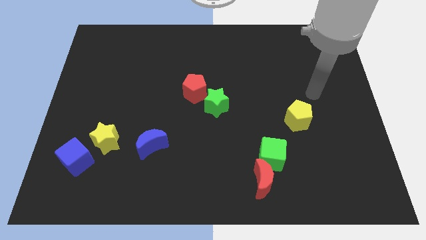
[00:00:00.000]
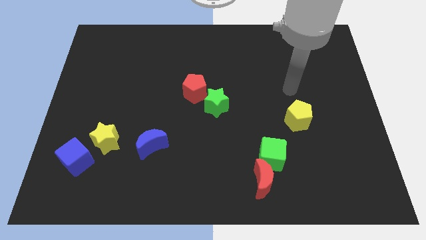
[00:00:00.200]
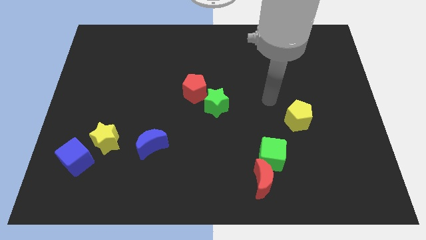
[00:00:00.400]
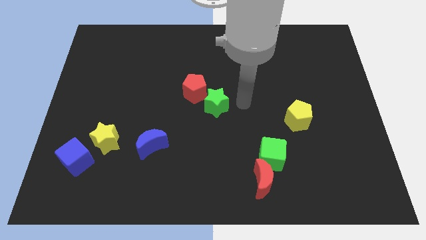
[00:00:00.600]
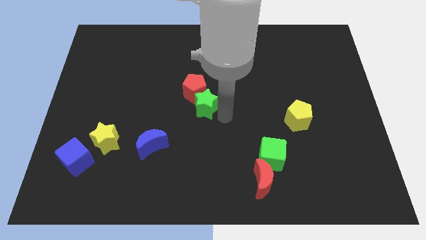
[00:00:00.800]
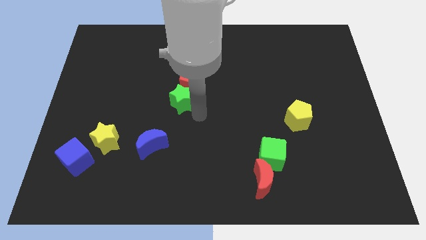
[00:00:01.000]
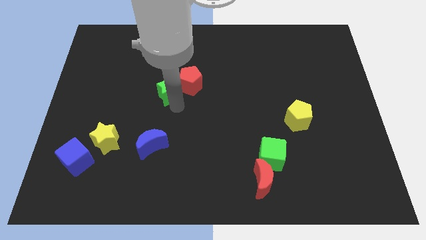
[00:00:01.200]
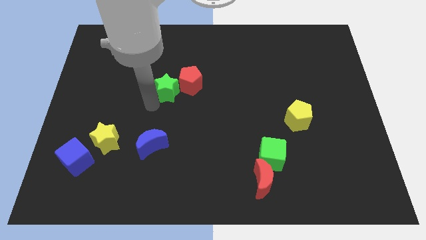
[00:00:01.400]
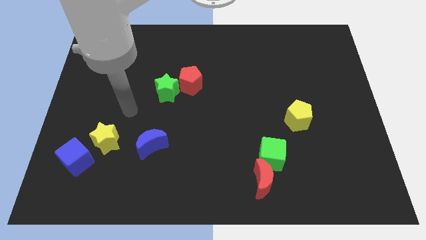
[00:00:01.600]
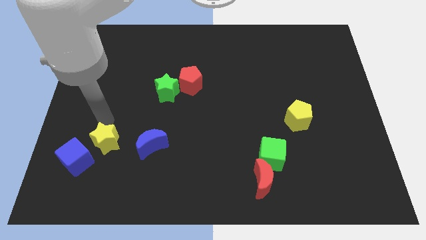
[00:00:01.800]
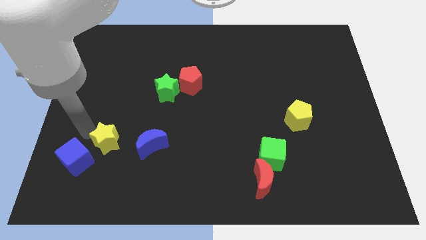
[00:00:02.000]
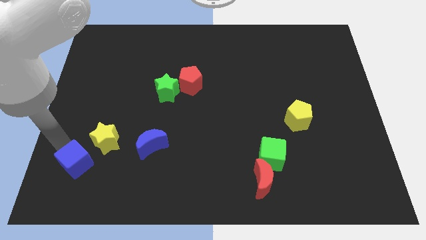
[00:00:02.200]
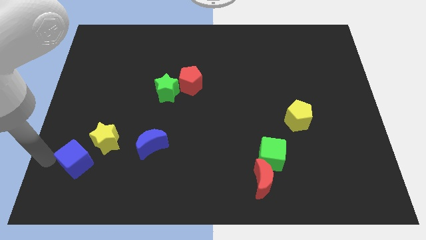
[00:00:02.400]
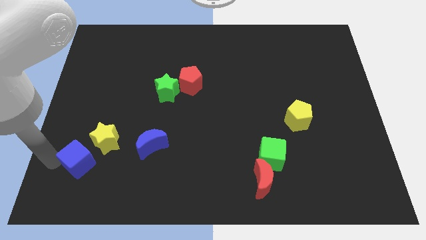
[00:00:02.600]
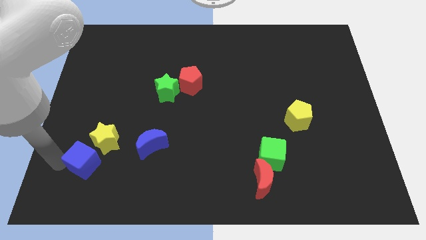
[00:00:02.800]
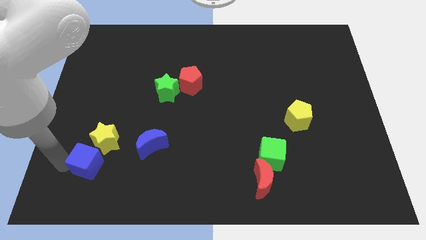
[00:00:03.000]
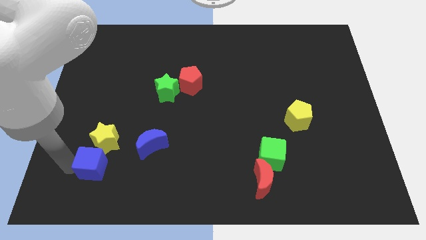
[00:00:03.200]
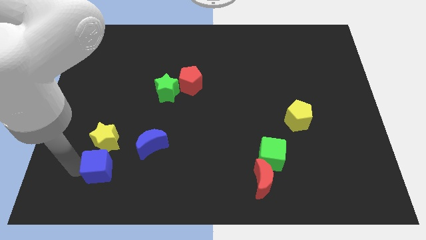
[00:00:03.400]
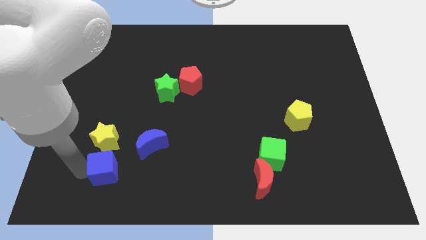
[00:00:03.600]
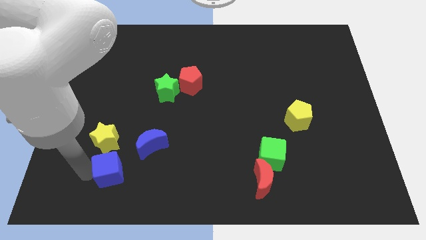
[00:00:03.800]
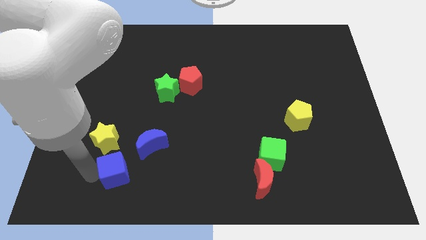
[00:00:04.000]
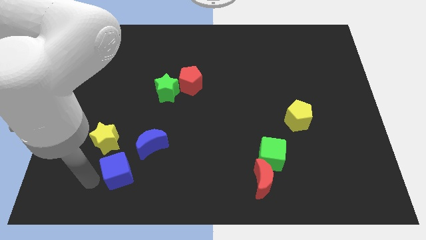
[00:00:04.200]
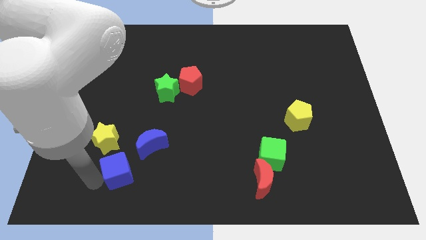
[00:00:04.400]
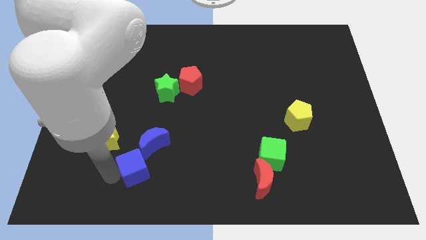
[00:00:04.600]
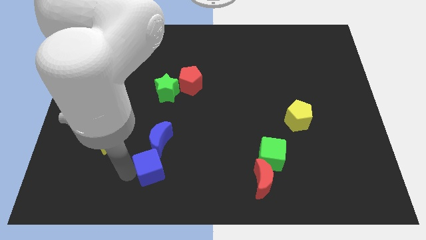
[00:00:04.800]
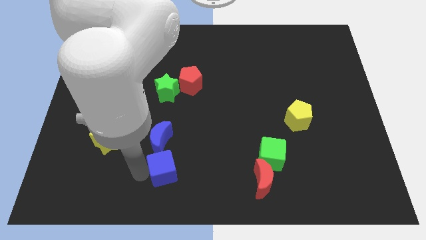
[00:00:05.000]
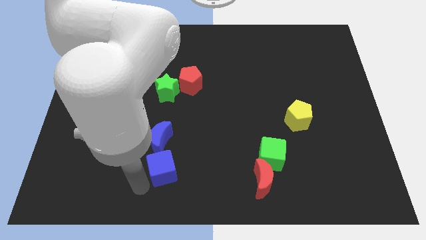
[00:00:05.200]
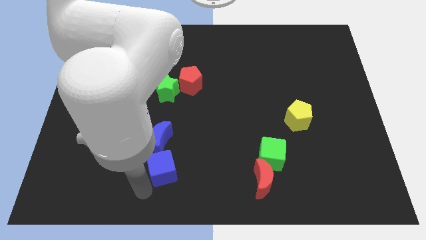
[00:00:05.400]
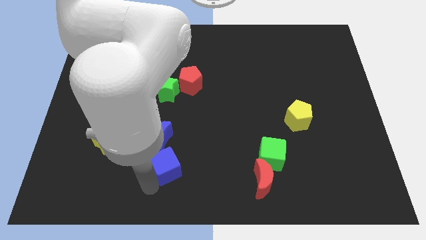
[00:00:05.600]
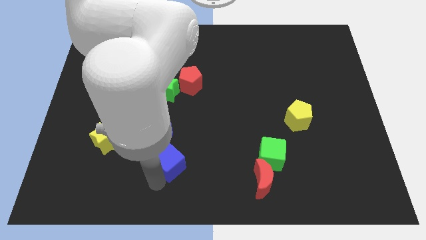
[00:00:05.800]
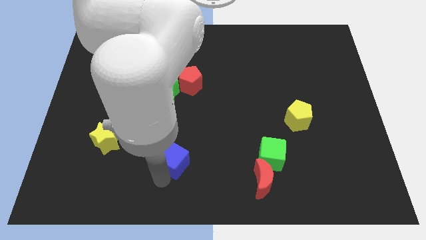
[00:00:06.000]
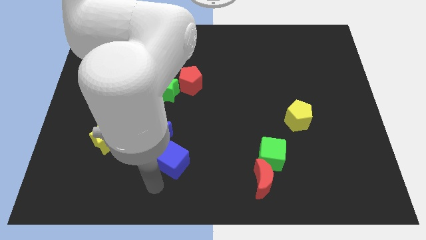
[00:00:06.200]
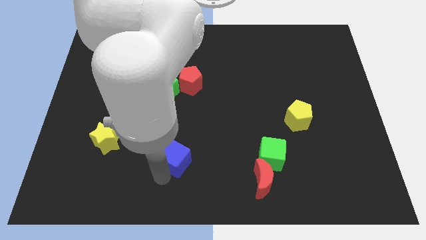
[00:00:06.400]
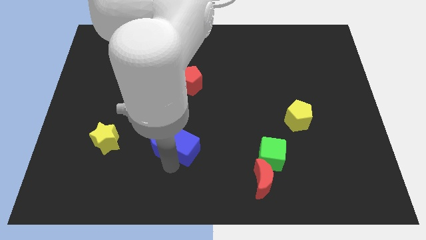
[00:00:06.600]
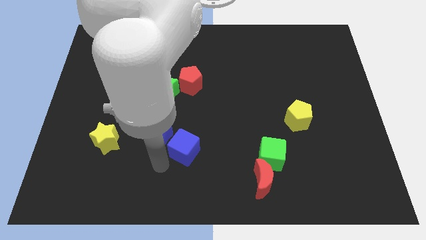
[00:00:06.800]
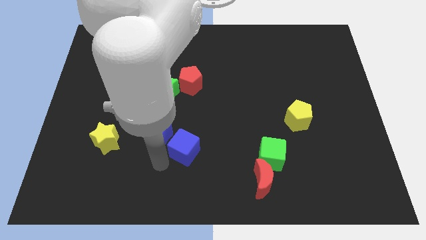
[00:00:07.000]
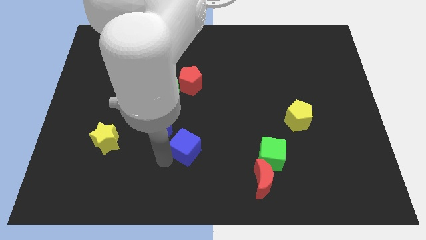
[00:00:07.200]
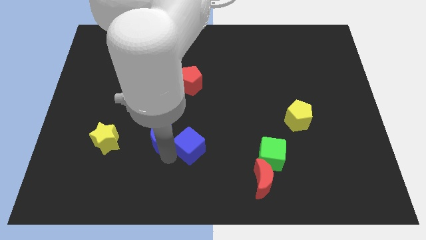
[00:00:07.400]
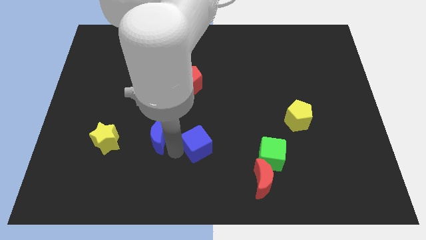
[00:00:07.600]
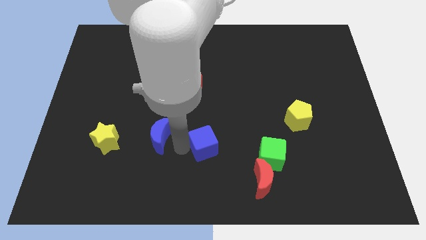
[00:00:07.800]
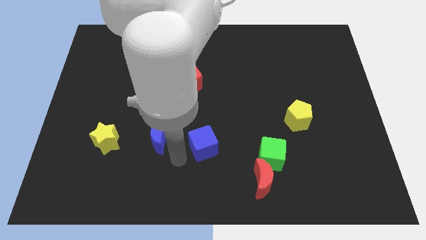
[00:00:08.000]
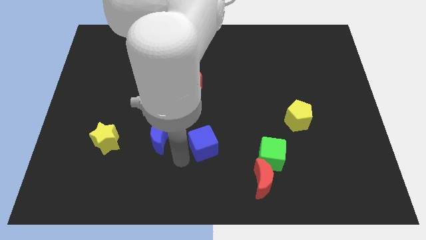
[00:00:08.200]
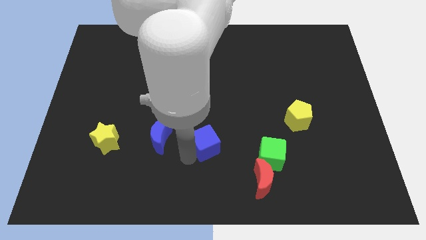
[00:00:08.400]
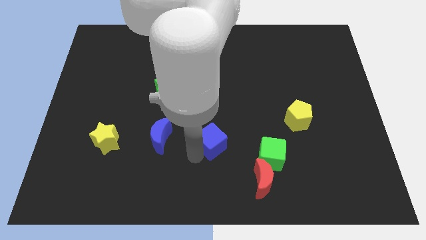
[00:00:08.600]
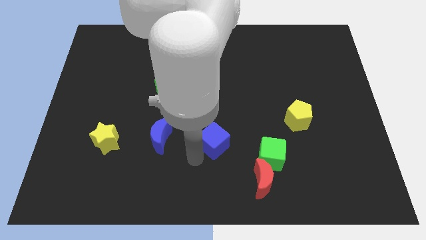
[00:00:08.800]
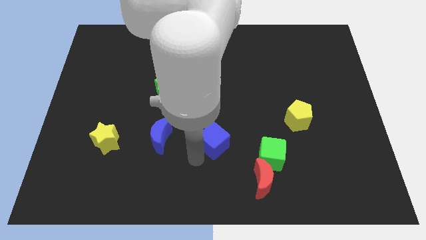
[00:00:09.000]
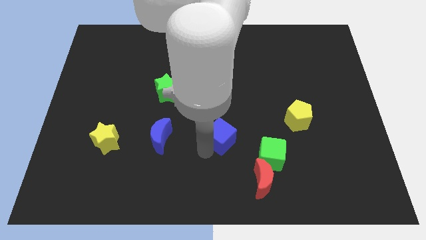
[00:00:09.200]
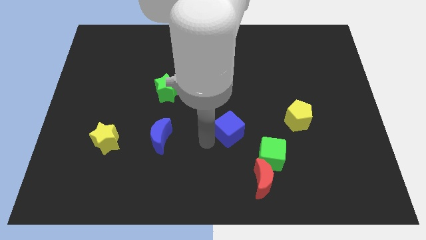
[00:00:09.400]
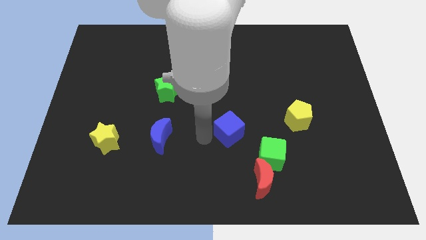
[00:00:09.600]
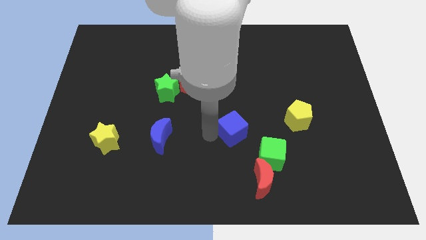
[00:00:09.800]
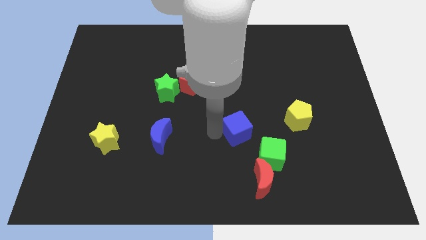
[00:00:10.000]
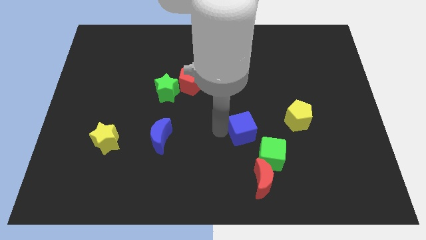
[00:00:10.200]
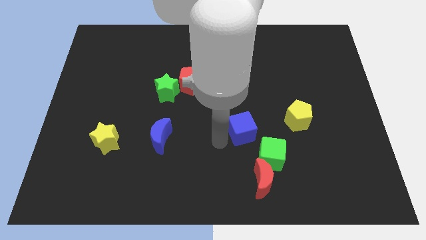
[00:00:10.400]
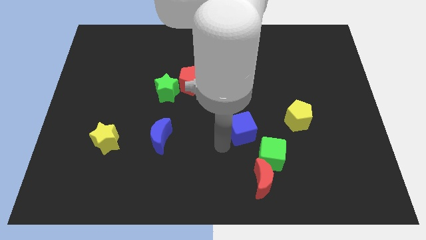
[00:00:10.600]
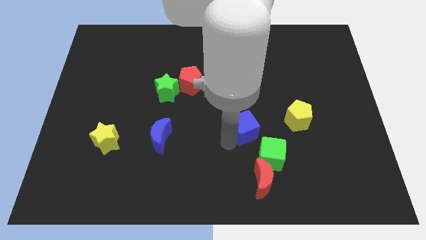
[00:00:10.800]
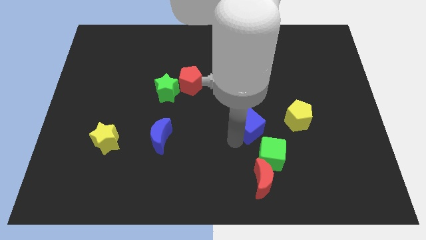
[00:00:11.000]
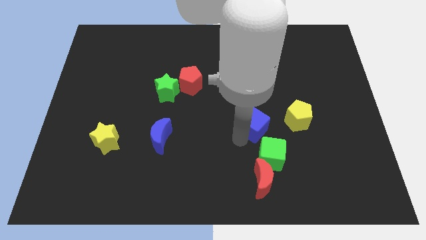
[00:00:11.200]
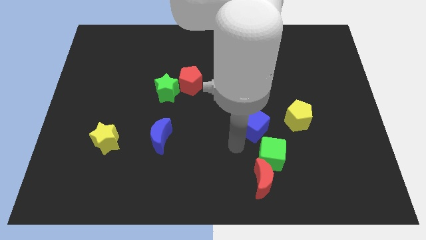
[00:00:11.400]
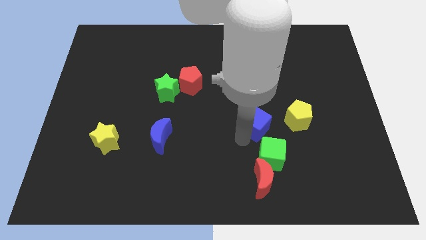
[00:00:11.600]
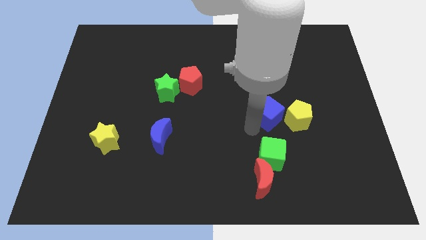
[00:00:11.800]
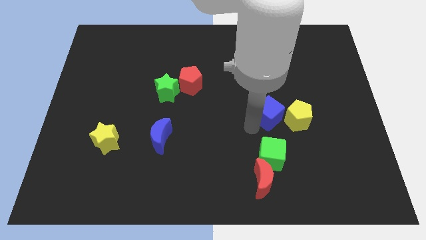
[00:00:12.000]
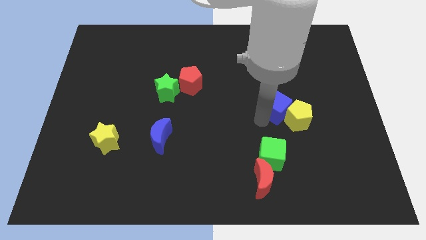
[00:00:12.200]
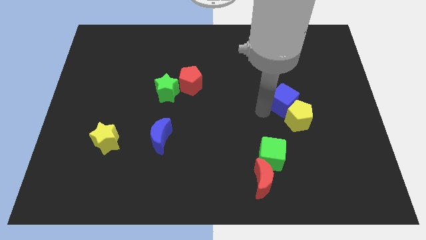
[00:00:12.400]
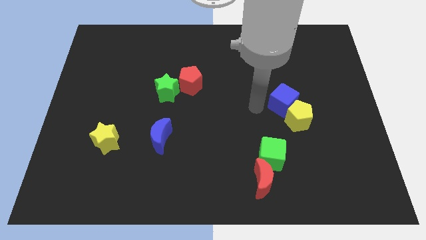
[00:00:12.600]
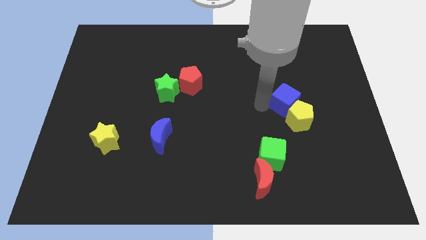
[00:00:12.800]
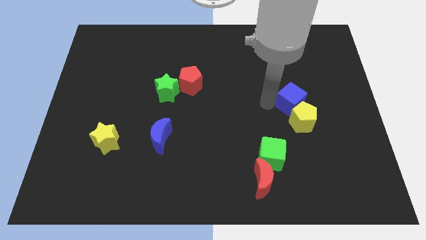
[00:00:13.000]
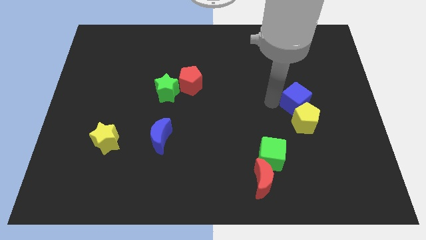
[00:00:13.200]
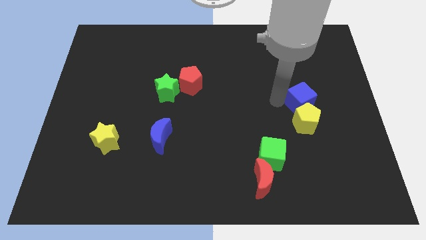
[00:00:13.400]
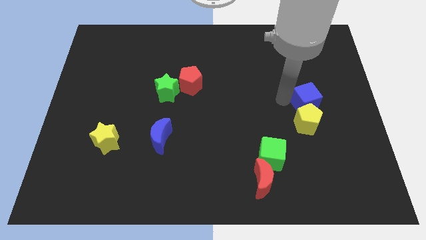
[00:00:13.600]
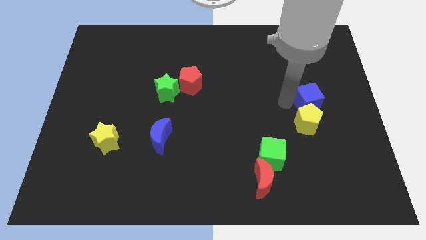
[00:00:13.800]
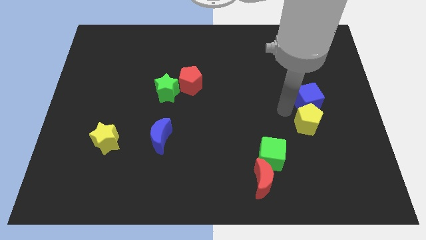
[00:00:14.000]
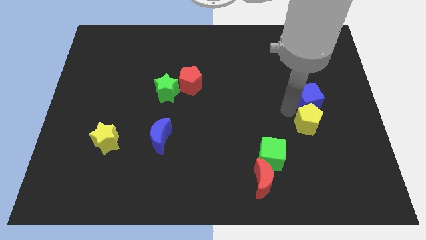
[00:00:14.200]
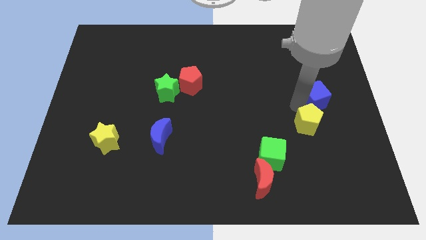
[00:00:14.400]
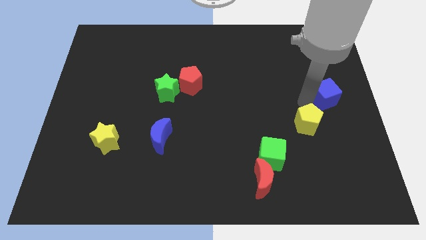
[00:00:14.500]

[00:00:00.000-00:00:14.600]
push the blue cube to the center right
